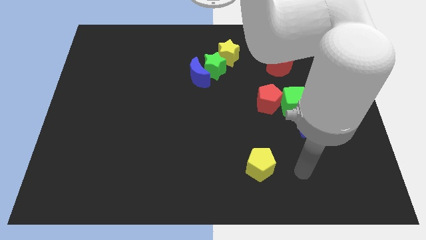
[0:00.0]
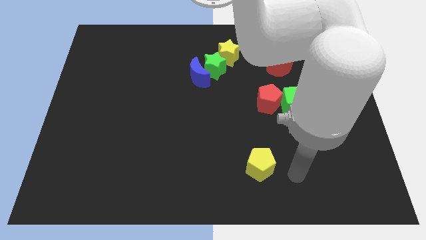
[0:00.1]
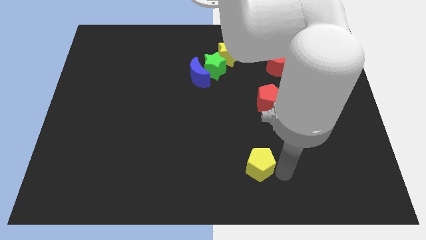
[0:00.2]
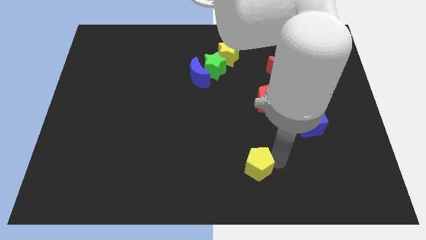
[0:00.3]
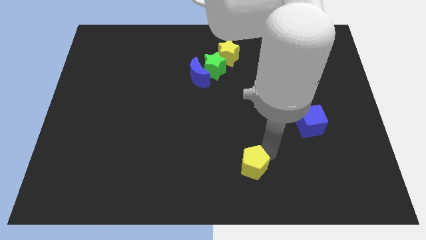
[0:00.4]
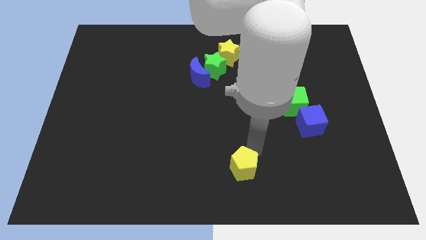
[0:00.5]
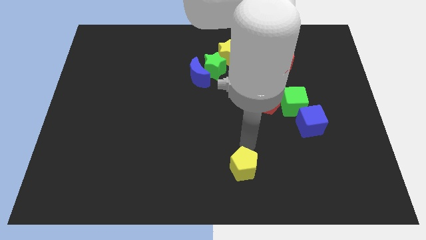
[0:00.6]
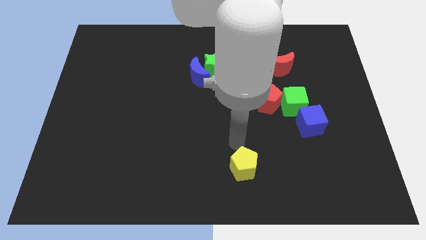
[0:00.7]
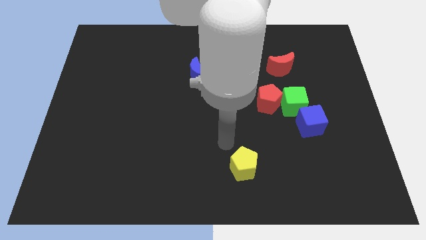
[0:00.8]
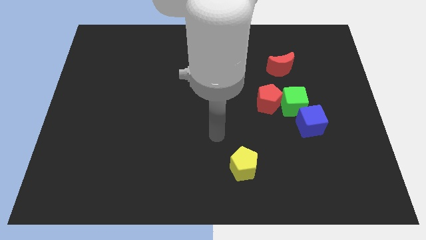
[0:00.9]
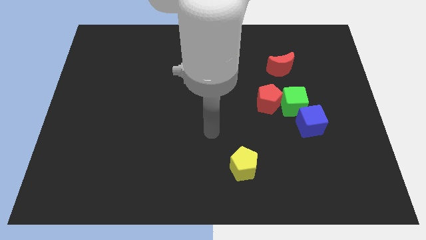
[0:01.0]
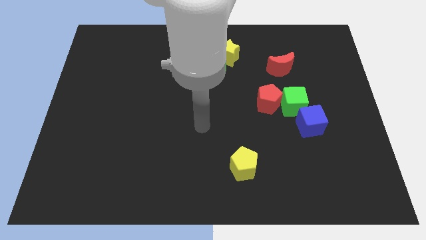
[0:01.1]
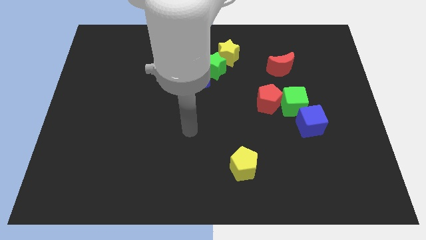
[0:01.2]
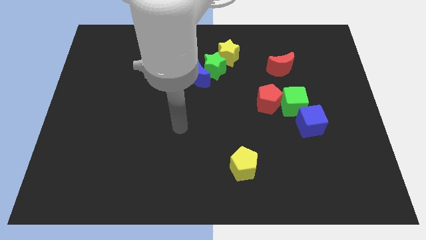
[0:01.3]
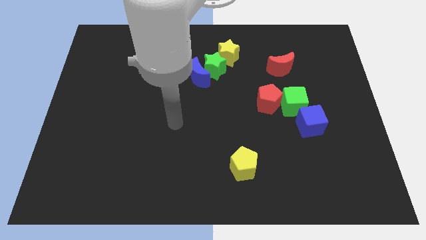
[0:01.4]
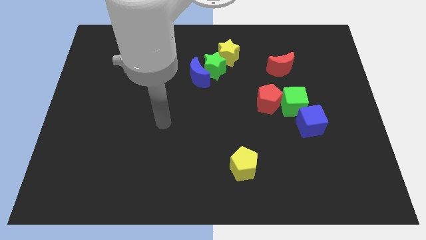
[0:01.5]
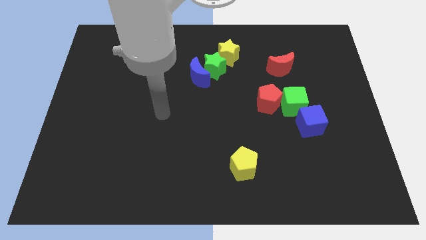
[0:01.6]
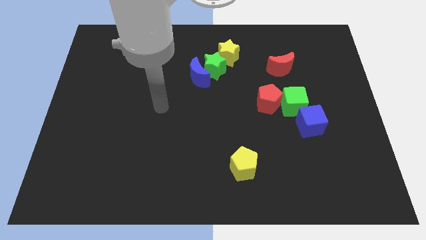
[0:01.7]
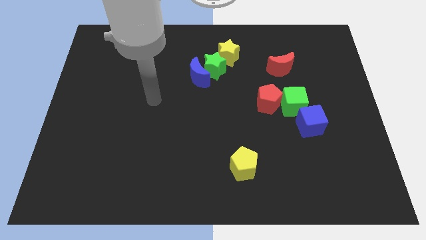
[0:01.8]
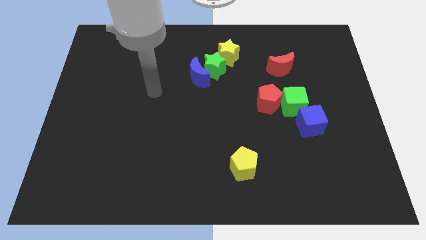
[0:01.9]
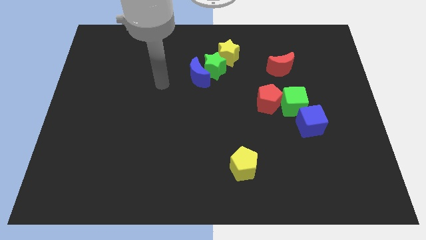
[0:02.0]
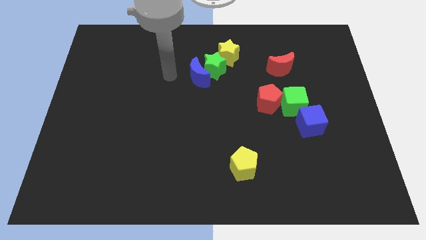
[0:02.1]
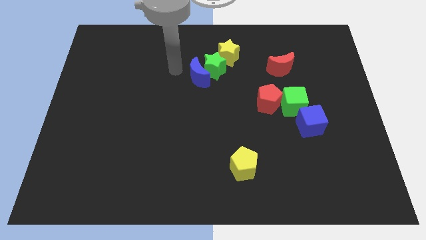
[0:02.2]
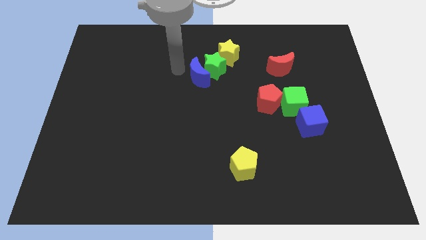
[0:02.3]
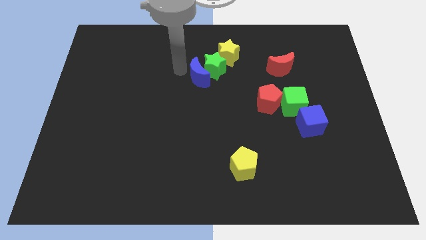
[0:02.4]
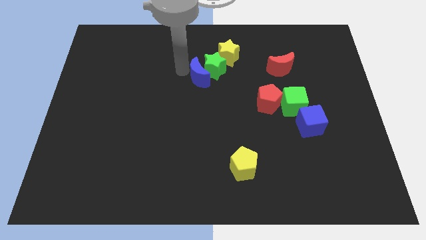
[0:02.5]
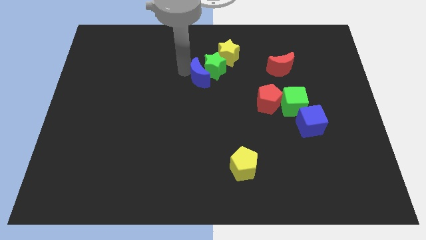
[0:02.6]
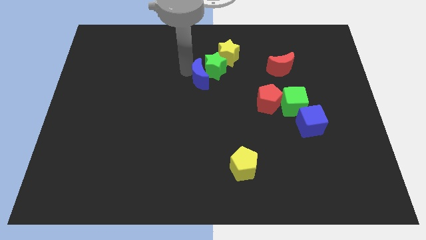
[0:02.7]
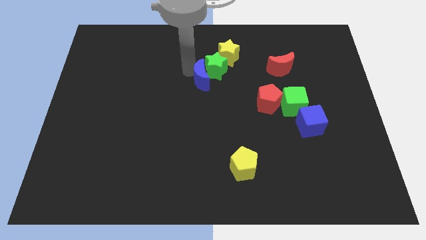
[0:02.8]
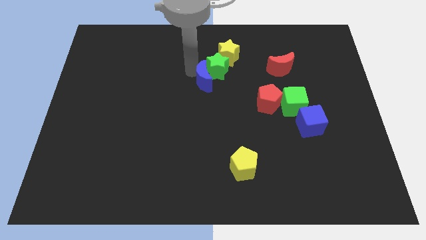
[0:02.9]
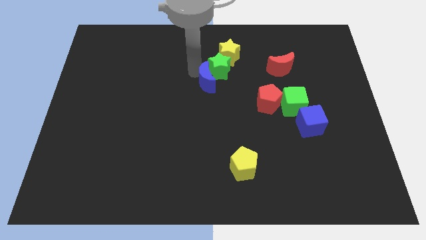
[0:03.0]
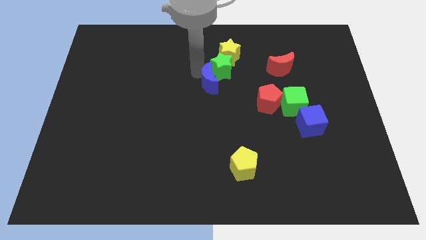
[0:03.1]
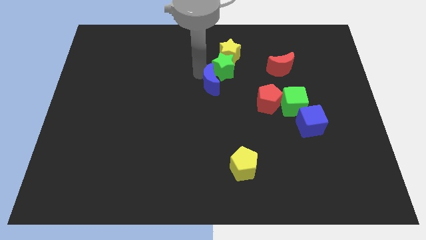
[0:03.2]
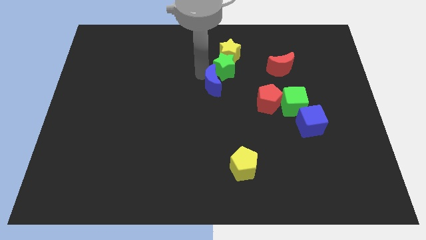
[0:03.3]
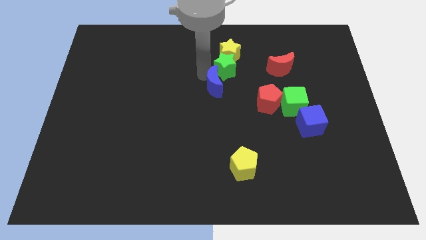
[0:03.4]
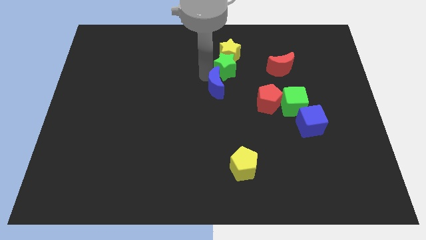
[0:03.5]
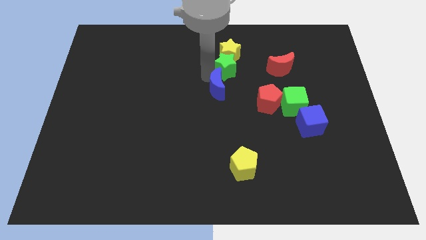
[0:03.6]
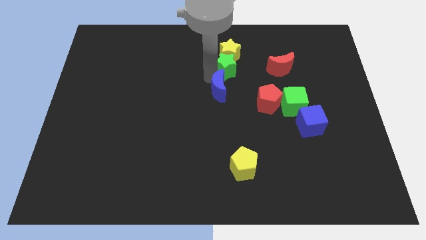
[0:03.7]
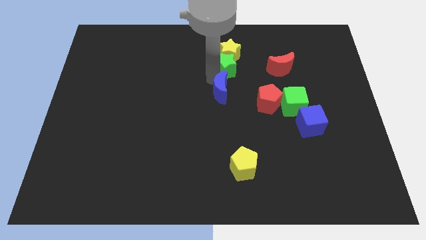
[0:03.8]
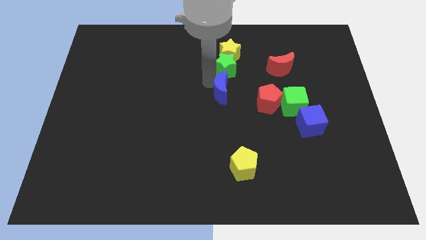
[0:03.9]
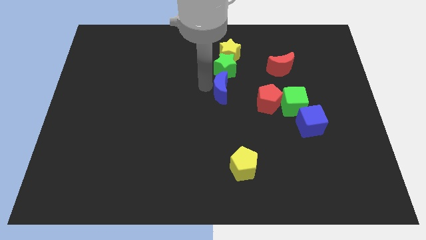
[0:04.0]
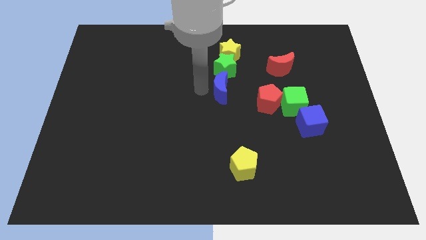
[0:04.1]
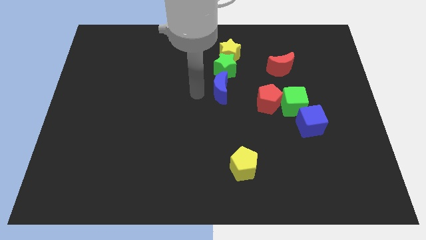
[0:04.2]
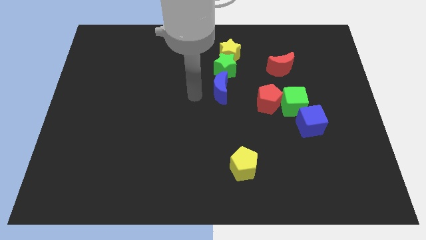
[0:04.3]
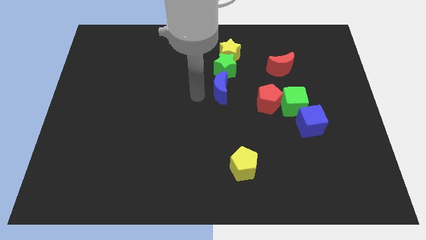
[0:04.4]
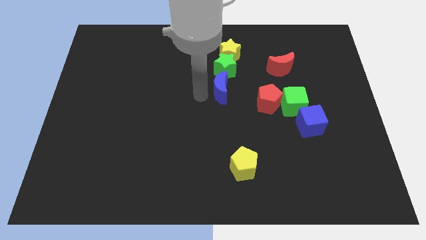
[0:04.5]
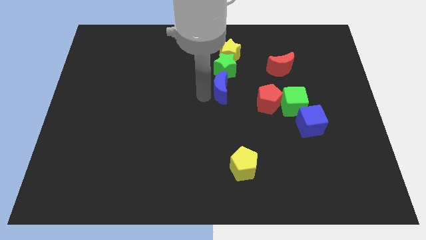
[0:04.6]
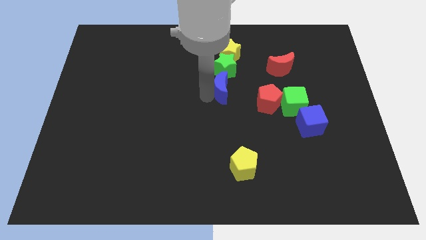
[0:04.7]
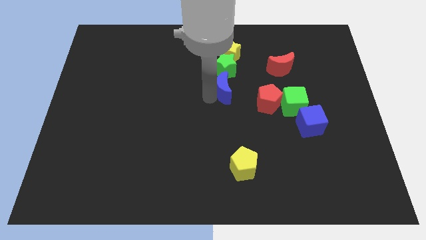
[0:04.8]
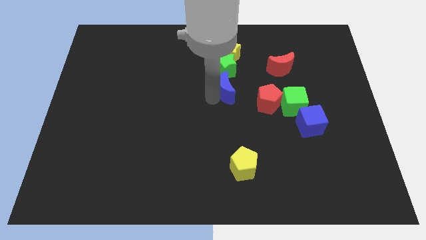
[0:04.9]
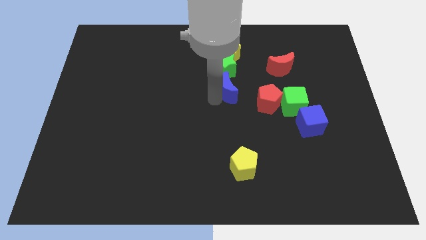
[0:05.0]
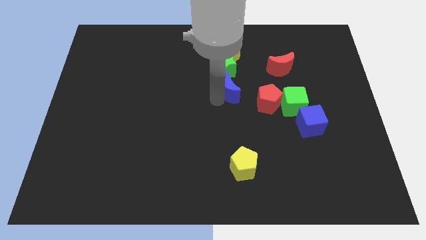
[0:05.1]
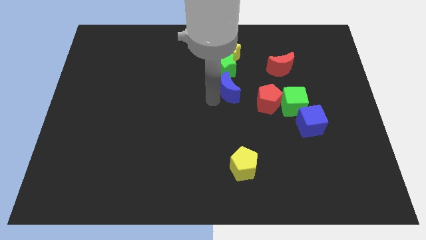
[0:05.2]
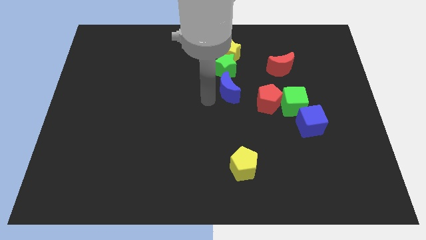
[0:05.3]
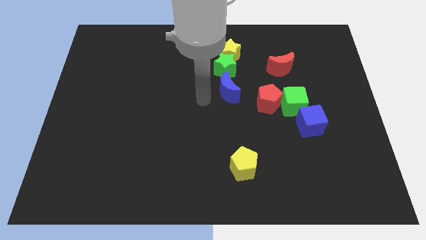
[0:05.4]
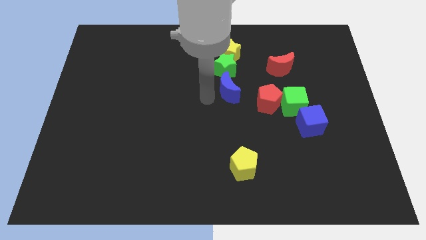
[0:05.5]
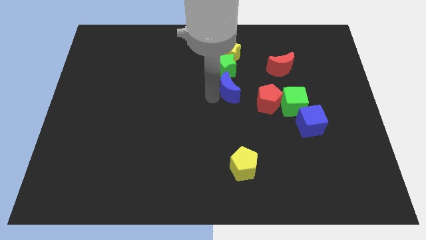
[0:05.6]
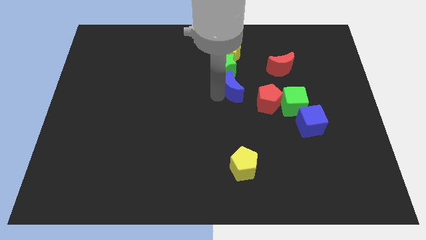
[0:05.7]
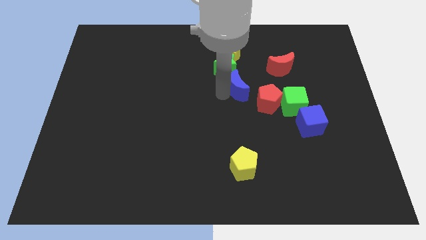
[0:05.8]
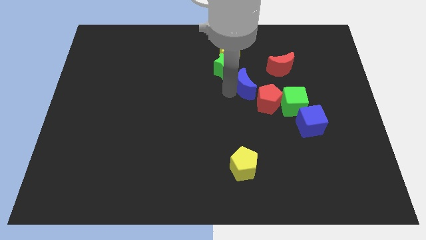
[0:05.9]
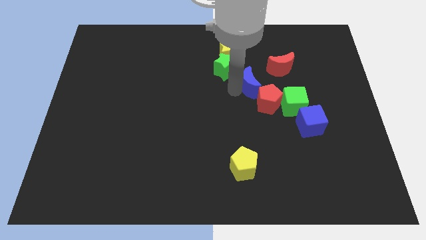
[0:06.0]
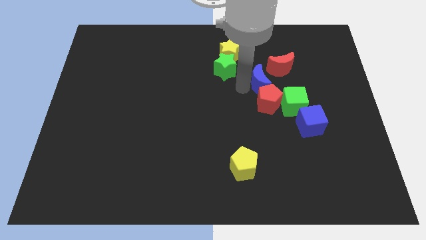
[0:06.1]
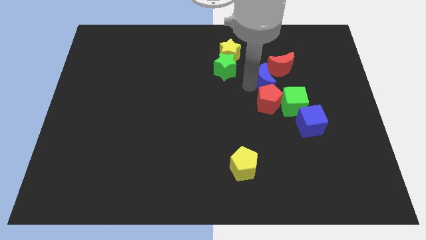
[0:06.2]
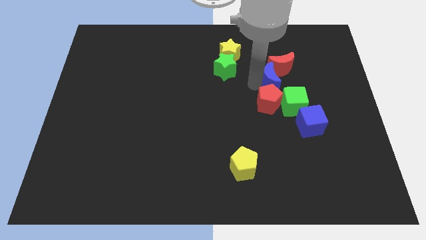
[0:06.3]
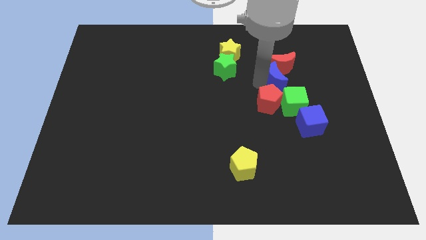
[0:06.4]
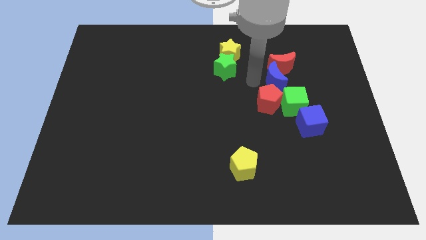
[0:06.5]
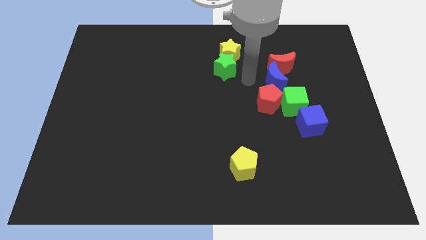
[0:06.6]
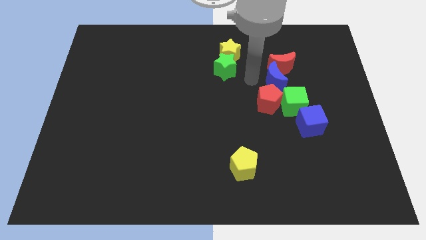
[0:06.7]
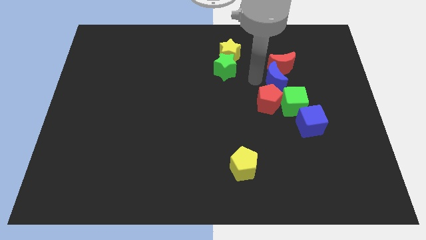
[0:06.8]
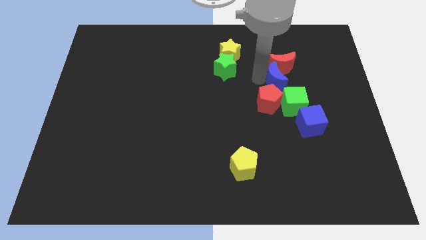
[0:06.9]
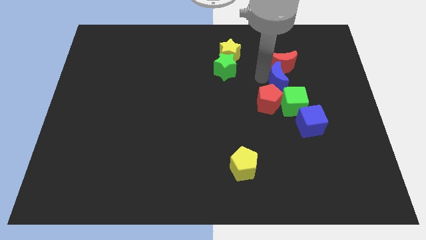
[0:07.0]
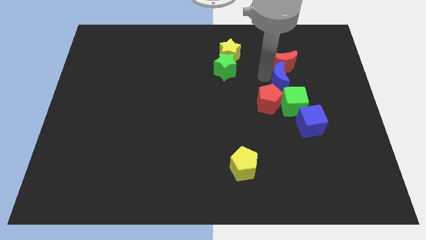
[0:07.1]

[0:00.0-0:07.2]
push the blue moon right

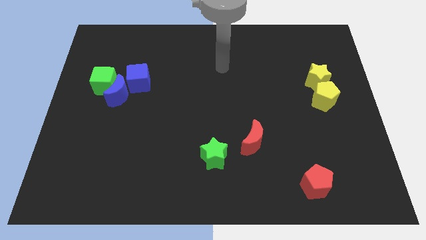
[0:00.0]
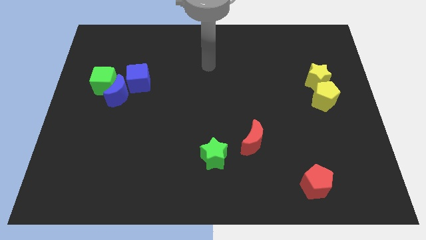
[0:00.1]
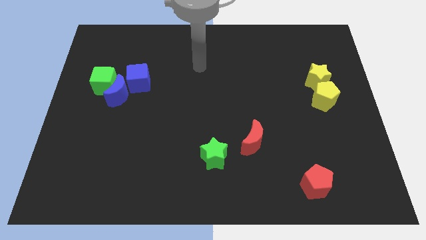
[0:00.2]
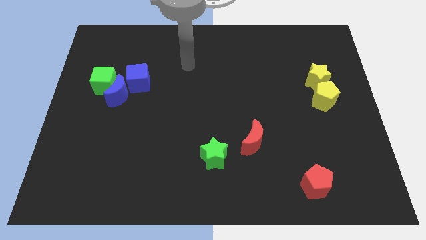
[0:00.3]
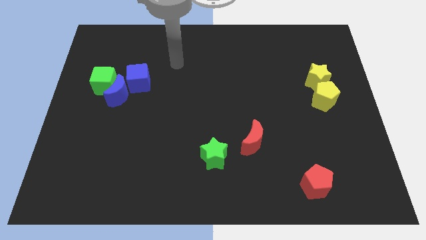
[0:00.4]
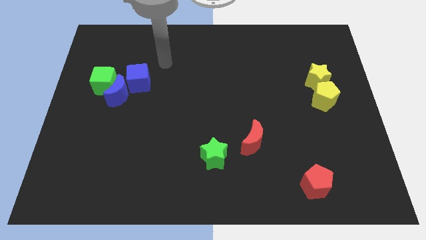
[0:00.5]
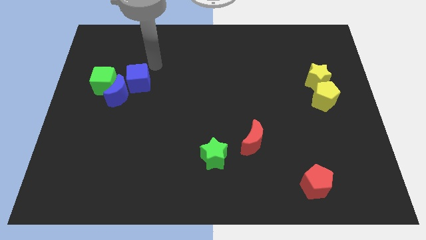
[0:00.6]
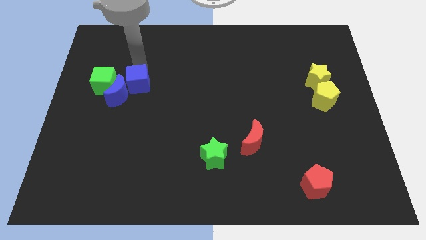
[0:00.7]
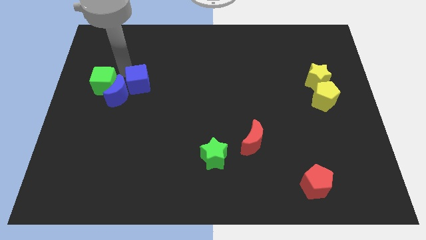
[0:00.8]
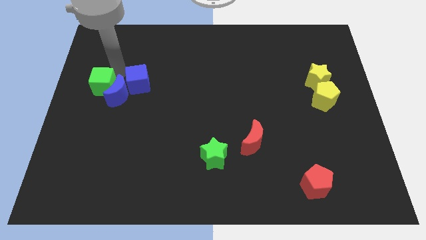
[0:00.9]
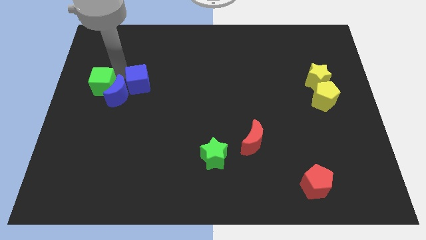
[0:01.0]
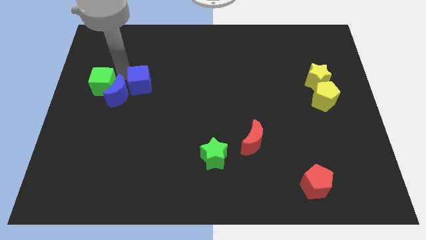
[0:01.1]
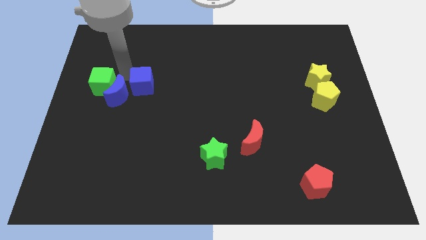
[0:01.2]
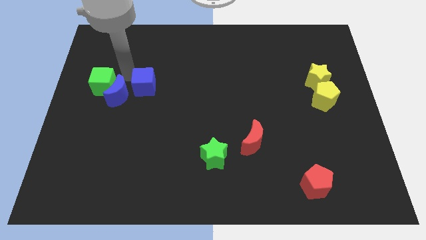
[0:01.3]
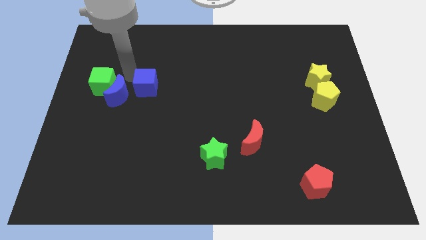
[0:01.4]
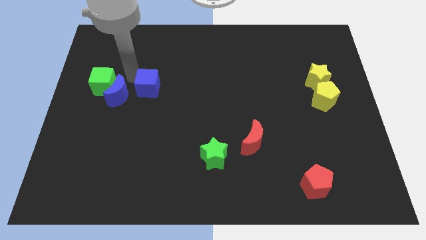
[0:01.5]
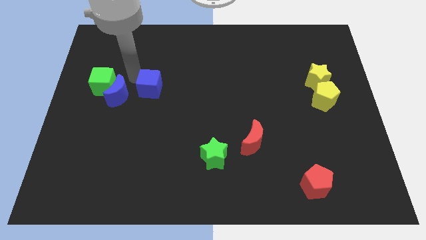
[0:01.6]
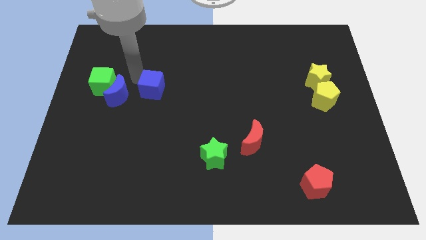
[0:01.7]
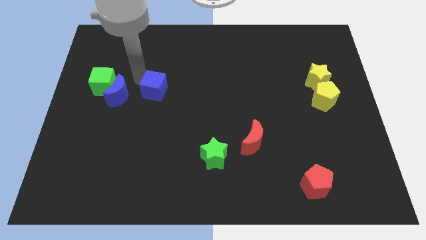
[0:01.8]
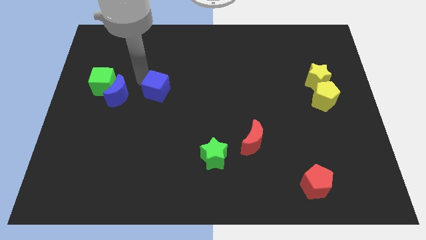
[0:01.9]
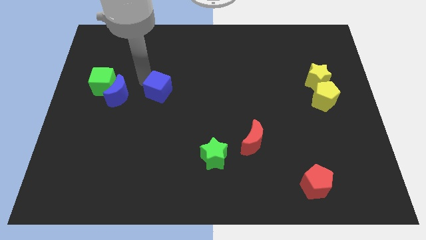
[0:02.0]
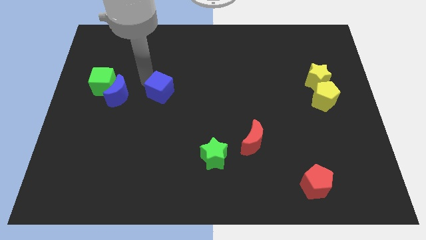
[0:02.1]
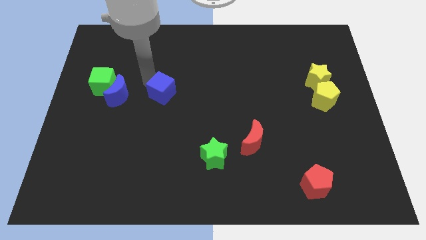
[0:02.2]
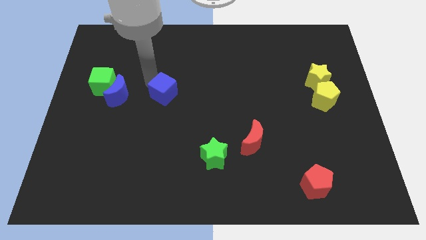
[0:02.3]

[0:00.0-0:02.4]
slide the blue cube a bit down and to the right diagonally
